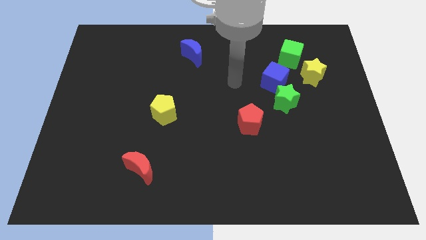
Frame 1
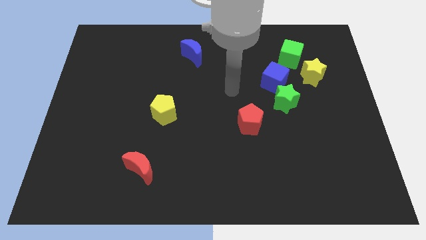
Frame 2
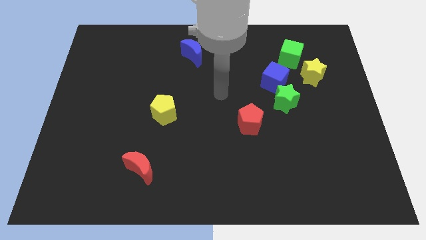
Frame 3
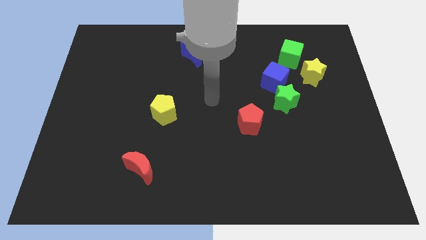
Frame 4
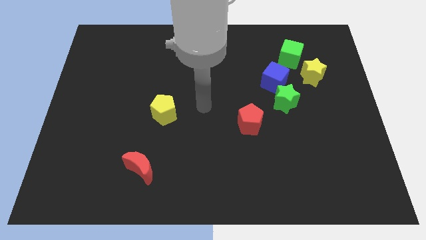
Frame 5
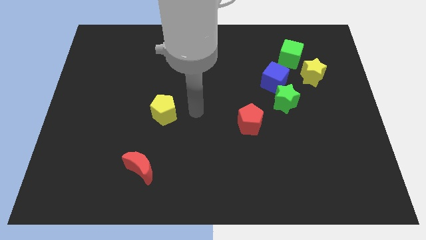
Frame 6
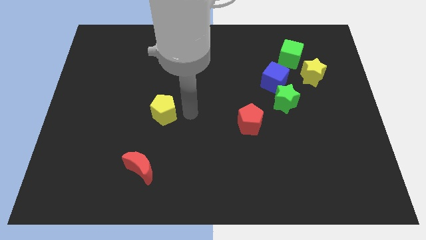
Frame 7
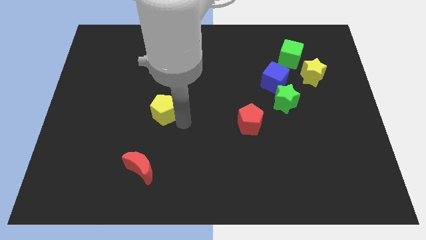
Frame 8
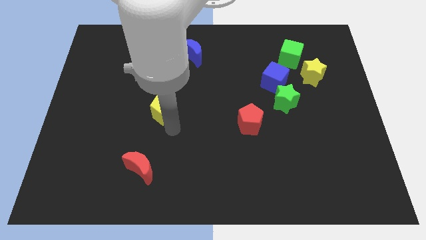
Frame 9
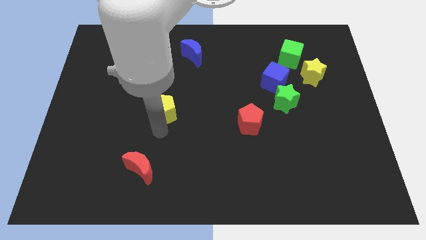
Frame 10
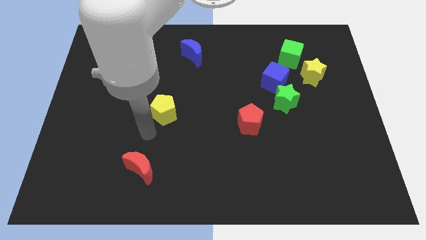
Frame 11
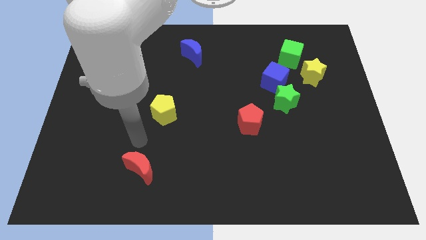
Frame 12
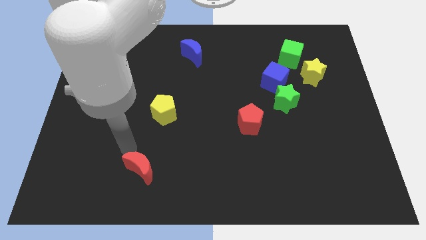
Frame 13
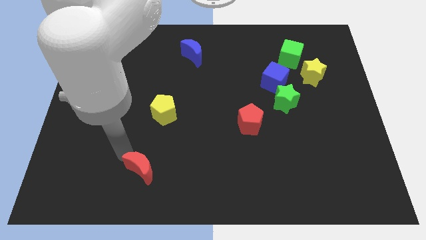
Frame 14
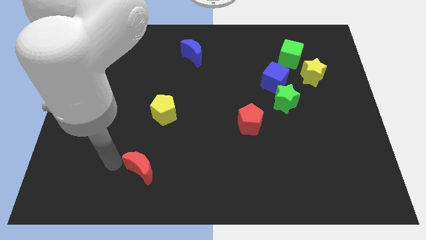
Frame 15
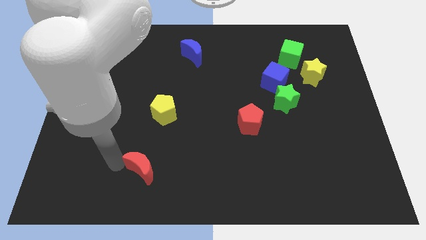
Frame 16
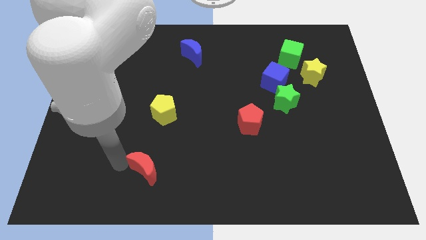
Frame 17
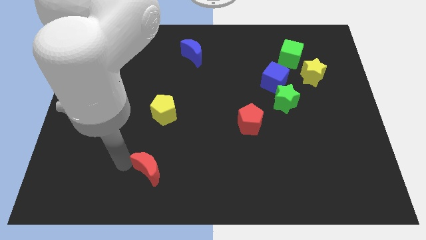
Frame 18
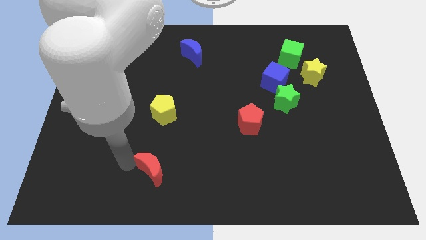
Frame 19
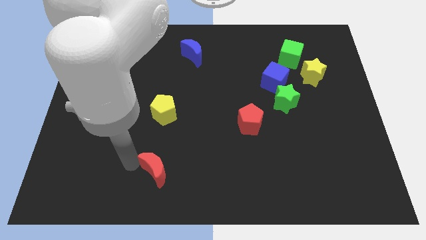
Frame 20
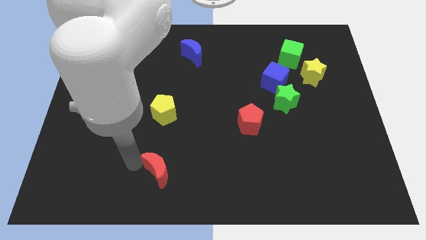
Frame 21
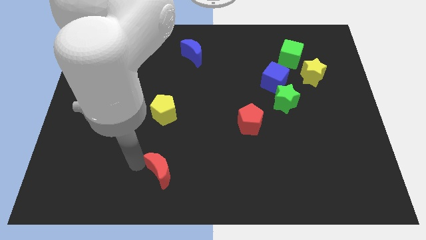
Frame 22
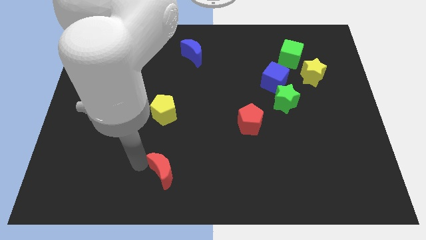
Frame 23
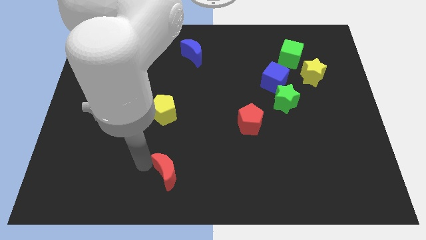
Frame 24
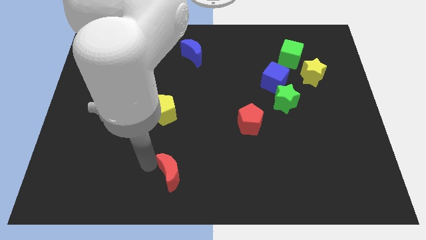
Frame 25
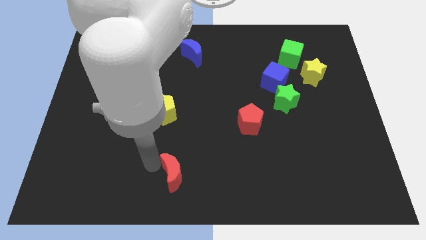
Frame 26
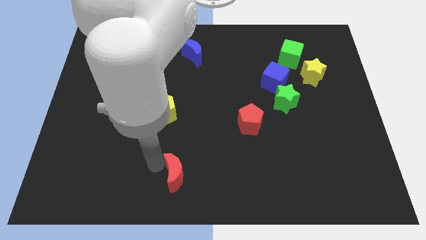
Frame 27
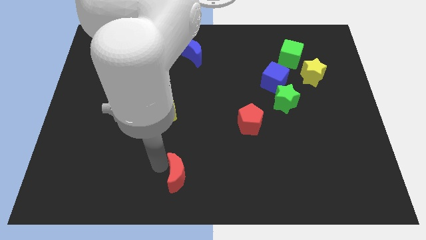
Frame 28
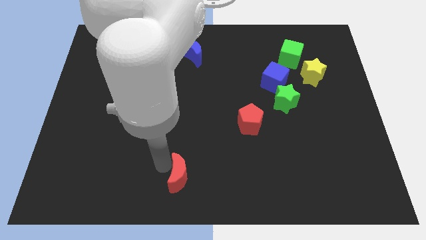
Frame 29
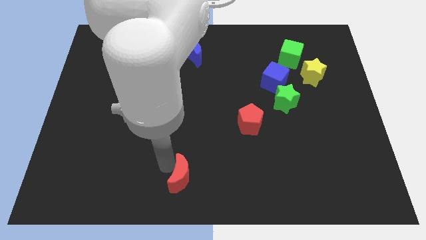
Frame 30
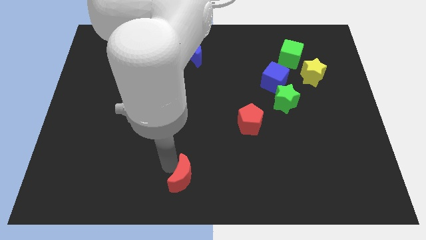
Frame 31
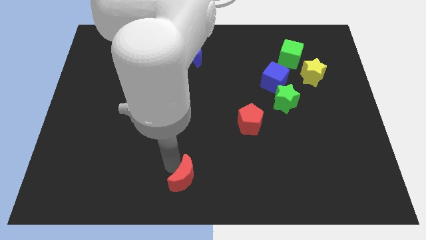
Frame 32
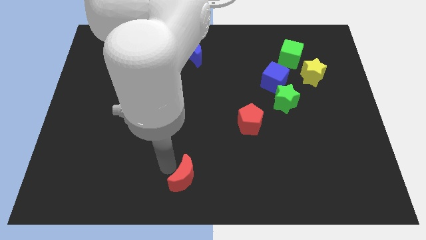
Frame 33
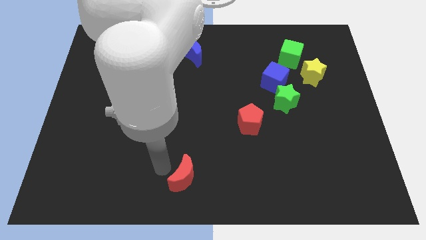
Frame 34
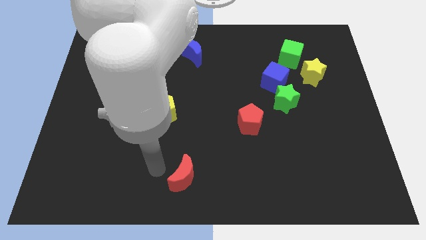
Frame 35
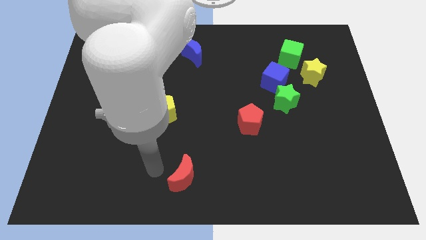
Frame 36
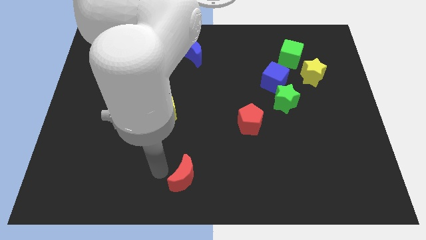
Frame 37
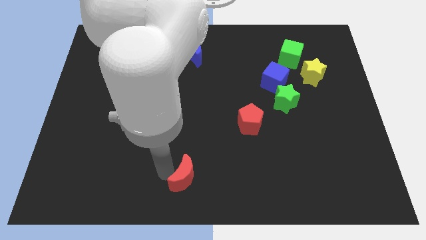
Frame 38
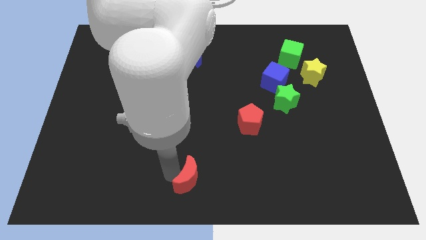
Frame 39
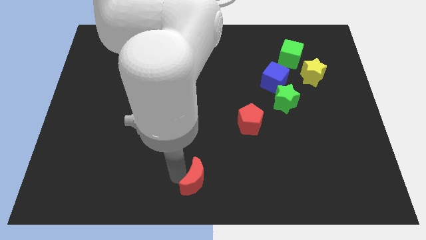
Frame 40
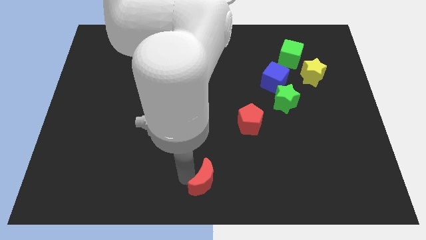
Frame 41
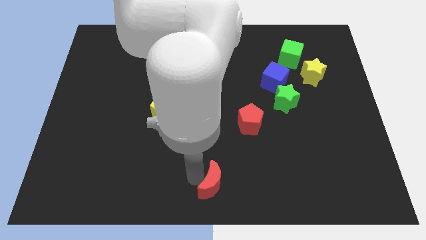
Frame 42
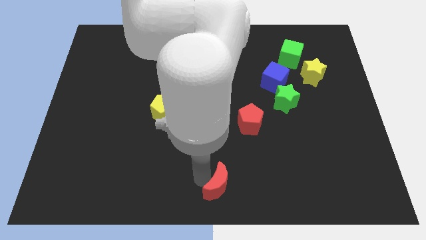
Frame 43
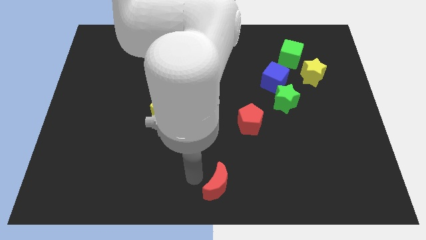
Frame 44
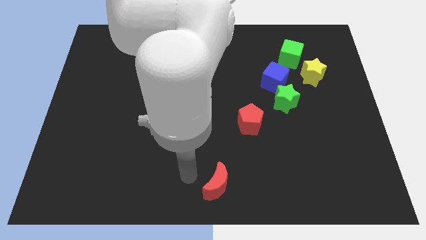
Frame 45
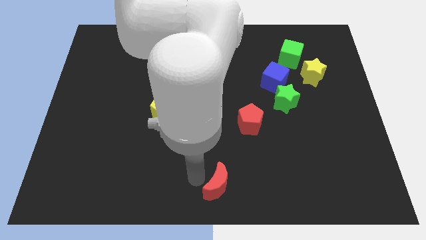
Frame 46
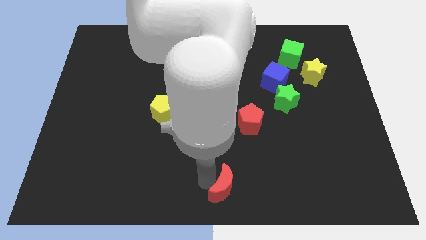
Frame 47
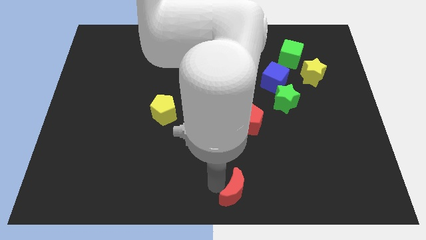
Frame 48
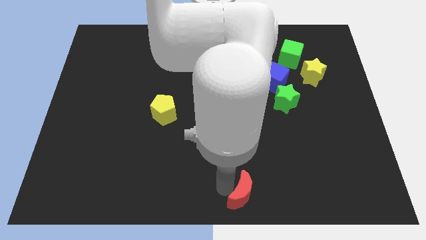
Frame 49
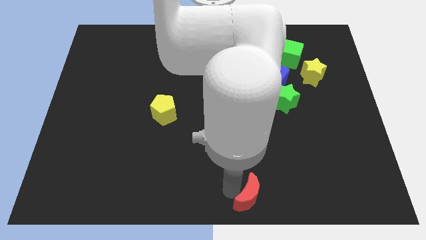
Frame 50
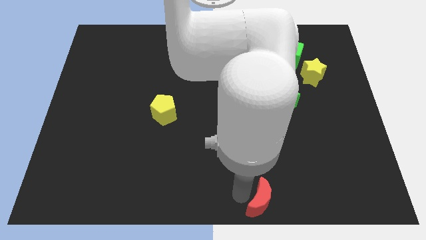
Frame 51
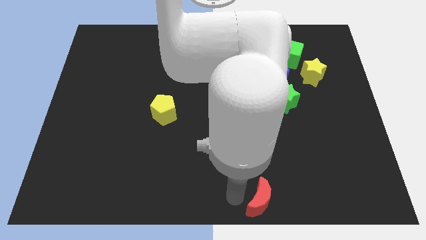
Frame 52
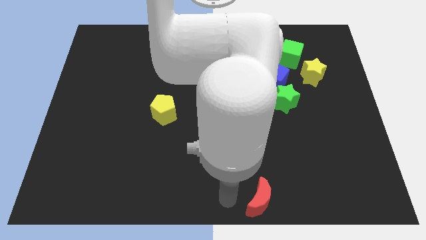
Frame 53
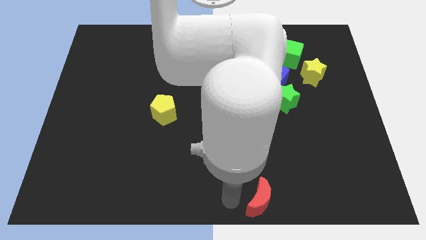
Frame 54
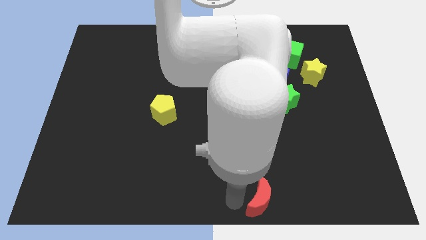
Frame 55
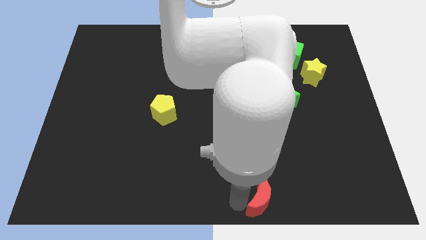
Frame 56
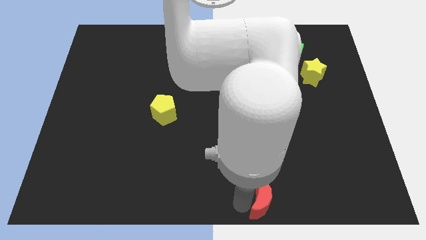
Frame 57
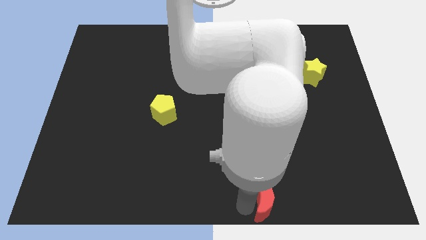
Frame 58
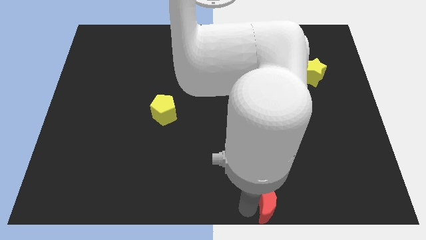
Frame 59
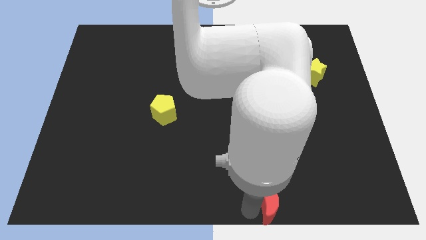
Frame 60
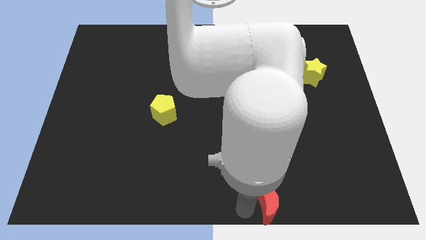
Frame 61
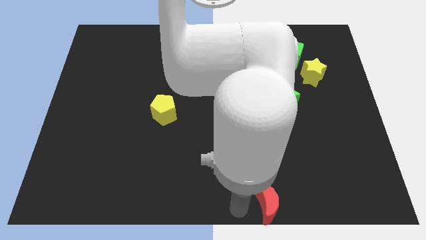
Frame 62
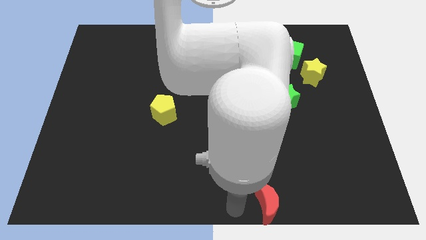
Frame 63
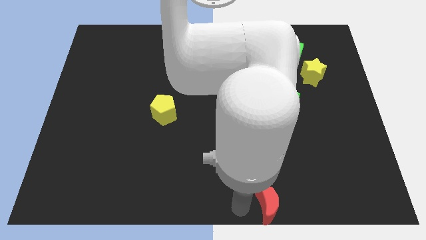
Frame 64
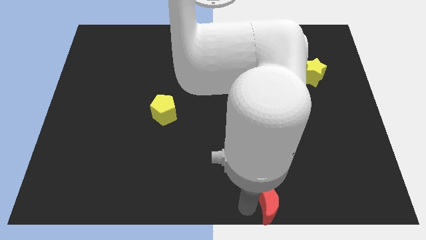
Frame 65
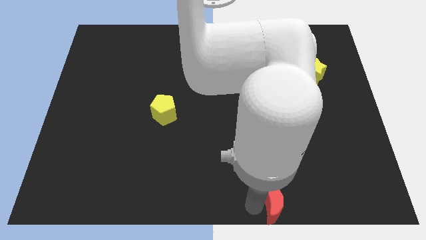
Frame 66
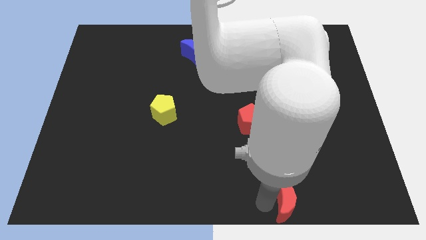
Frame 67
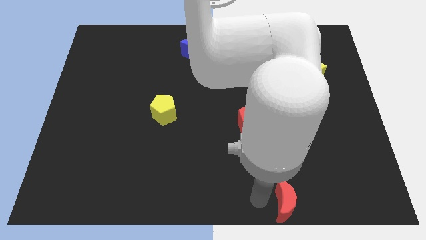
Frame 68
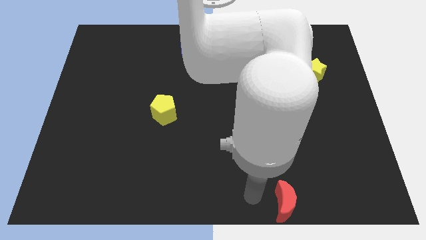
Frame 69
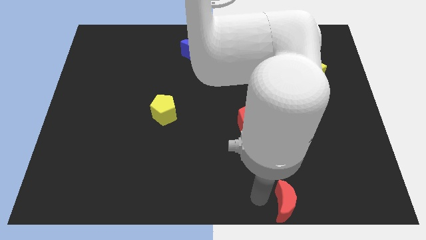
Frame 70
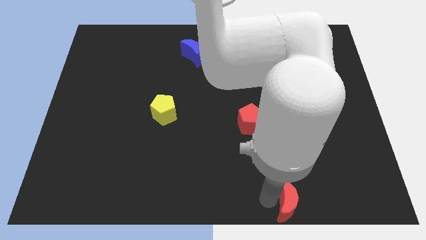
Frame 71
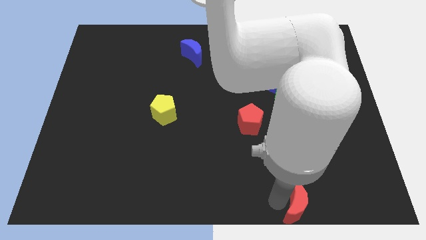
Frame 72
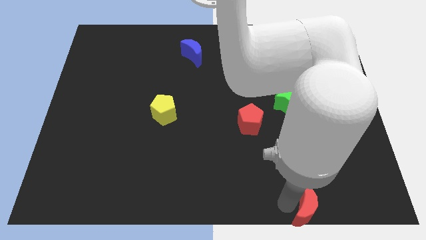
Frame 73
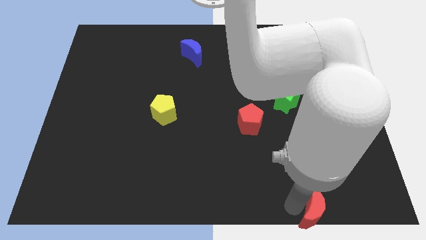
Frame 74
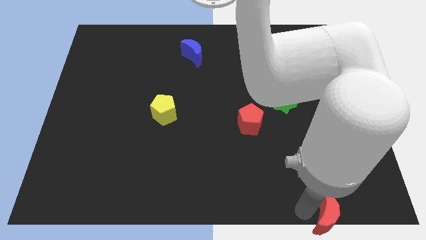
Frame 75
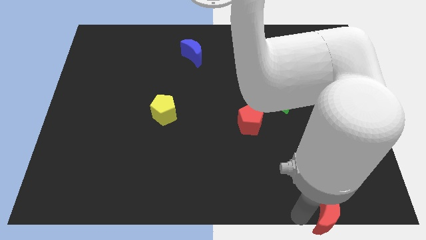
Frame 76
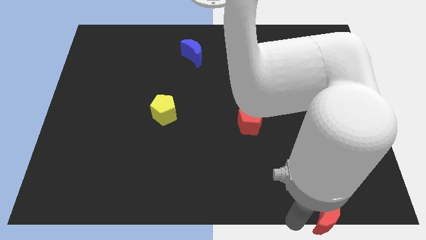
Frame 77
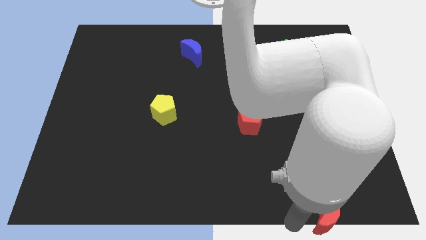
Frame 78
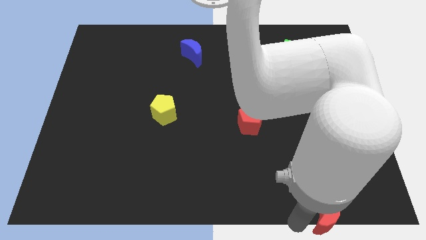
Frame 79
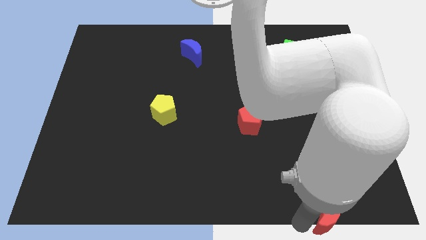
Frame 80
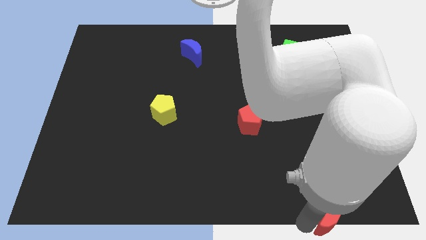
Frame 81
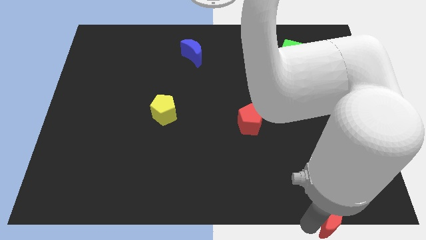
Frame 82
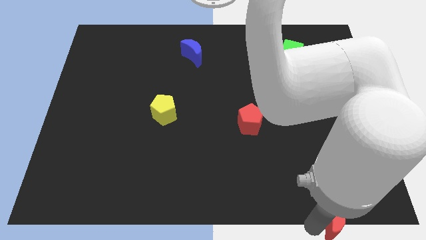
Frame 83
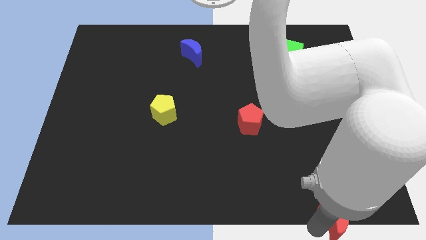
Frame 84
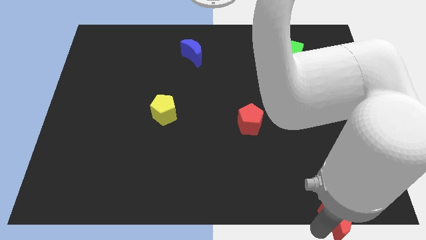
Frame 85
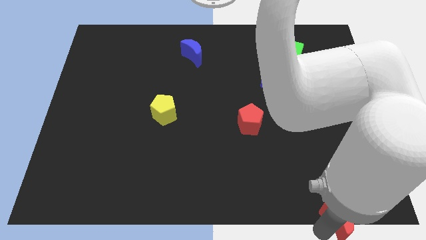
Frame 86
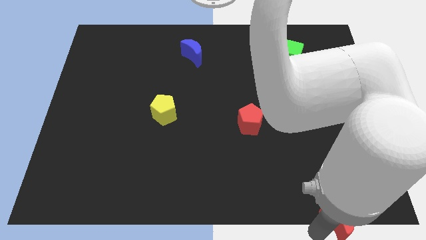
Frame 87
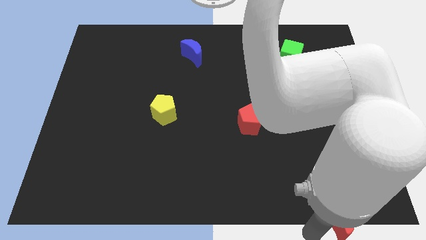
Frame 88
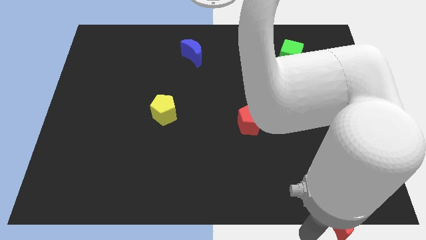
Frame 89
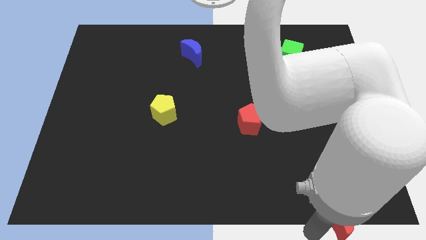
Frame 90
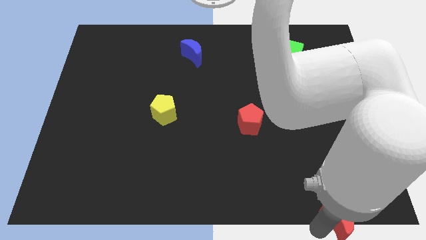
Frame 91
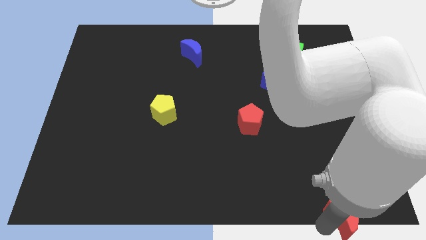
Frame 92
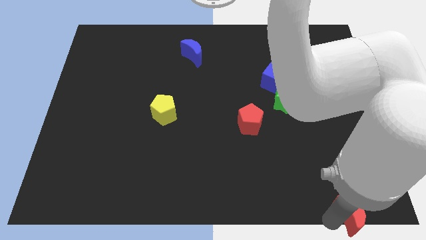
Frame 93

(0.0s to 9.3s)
put the red moon to the bottom right
